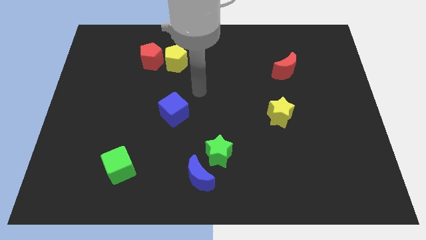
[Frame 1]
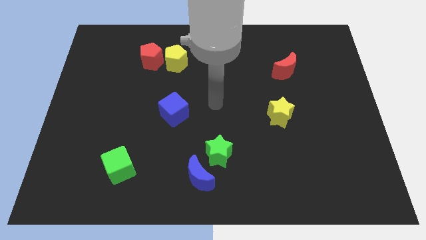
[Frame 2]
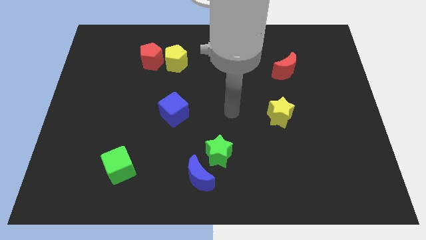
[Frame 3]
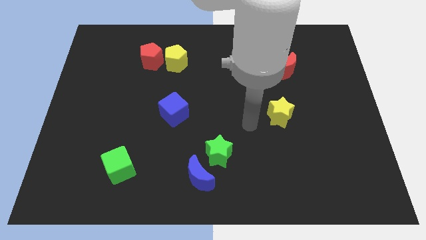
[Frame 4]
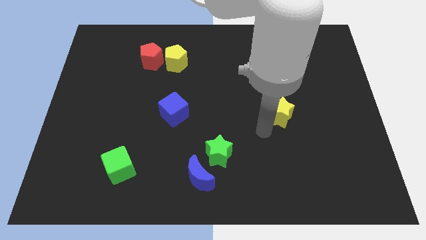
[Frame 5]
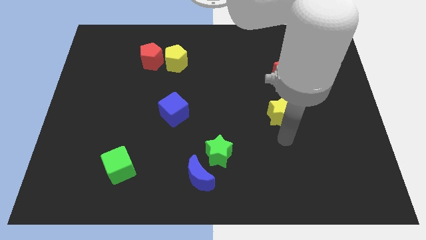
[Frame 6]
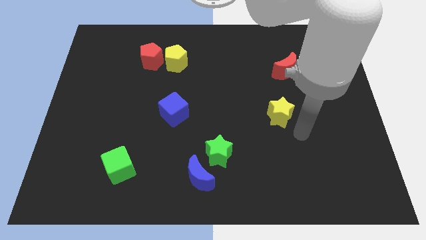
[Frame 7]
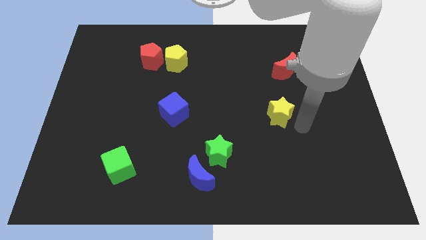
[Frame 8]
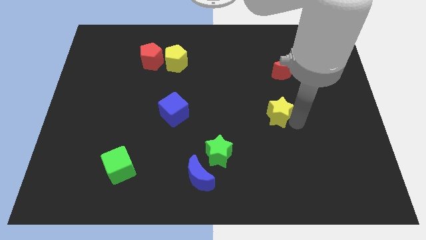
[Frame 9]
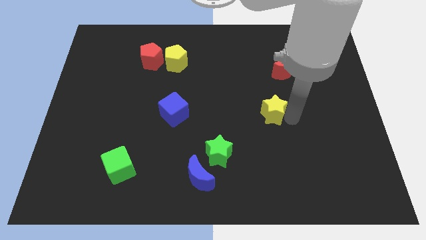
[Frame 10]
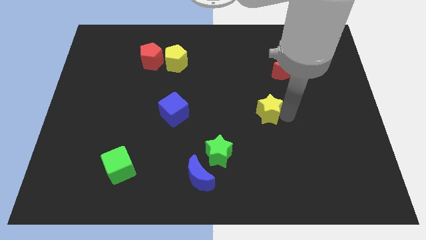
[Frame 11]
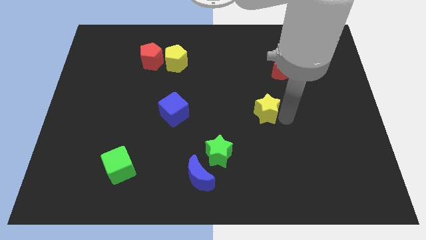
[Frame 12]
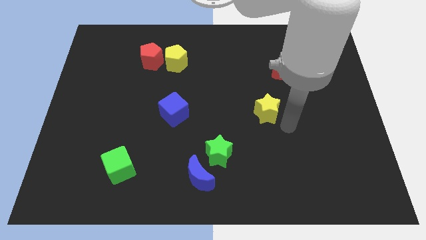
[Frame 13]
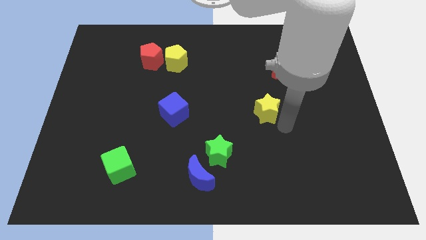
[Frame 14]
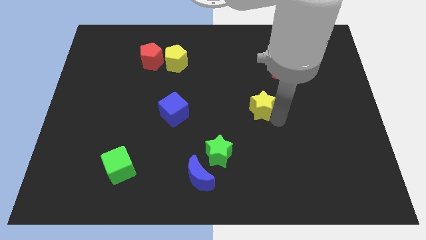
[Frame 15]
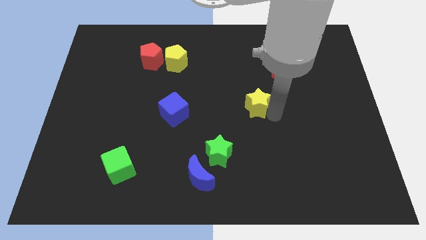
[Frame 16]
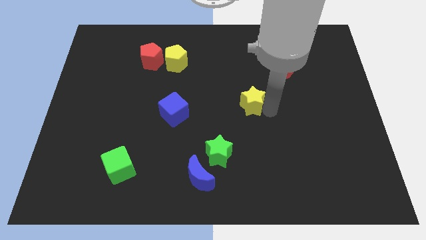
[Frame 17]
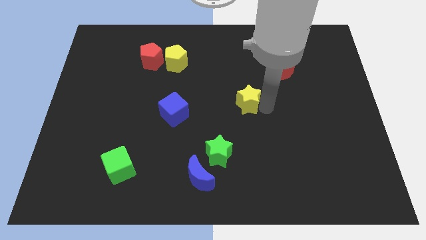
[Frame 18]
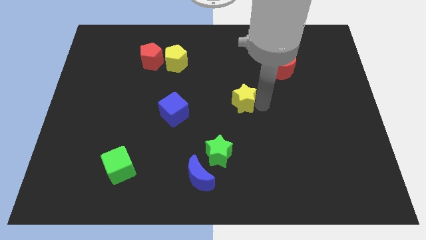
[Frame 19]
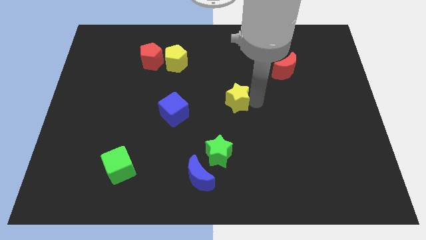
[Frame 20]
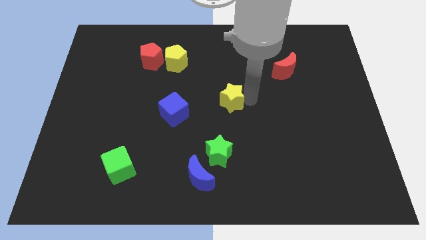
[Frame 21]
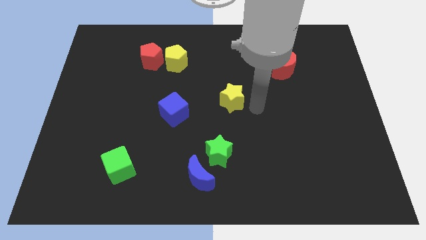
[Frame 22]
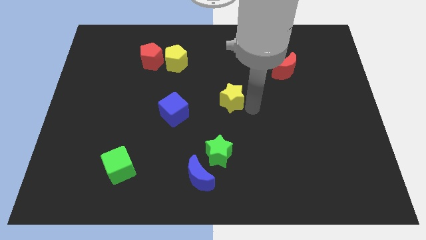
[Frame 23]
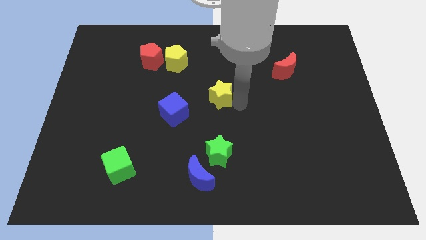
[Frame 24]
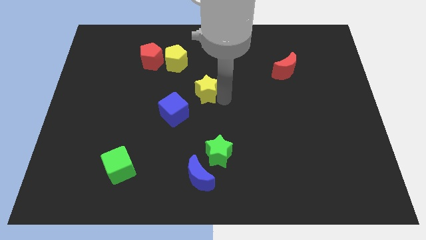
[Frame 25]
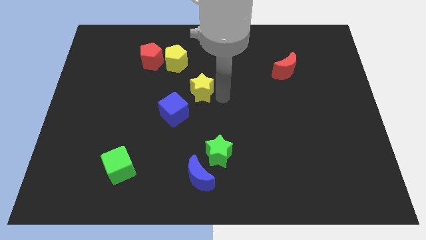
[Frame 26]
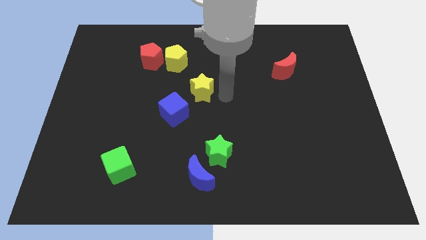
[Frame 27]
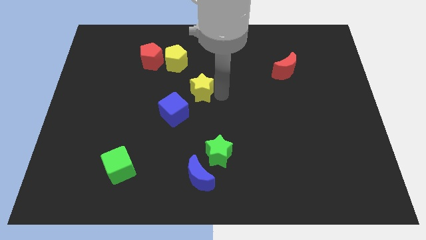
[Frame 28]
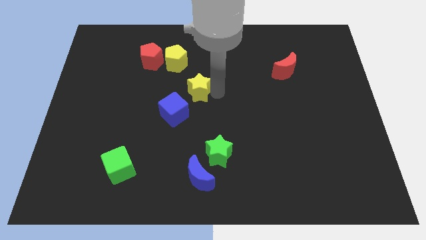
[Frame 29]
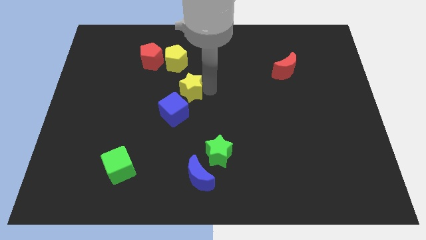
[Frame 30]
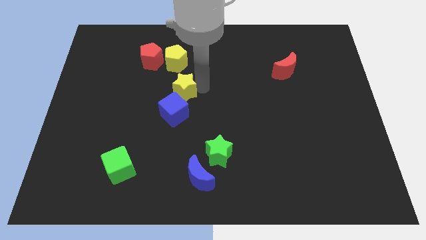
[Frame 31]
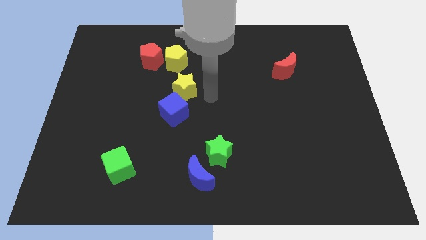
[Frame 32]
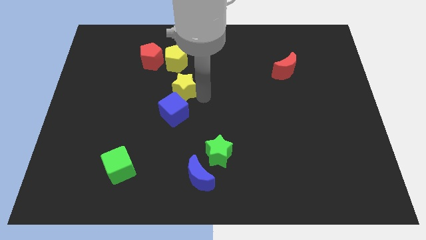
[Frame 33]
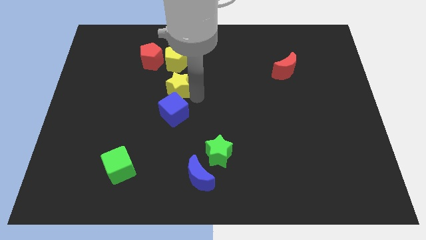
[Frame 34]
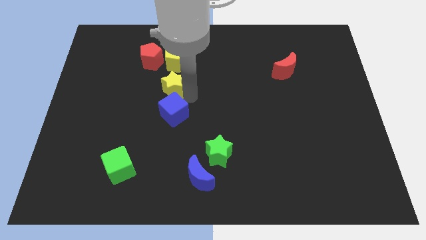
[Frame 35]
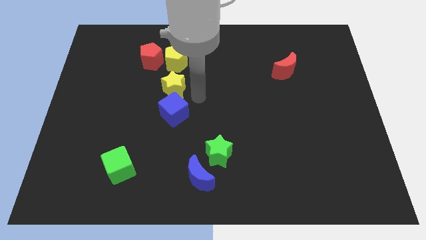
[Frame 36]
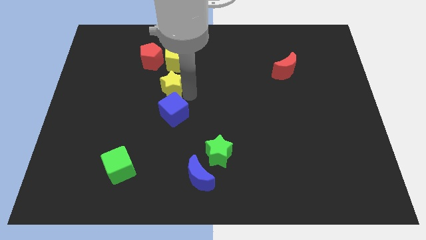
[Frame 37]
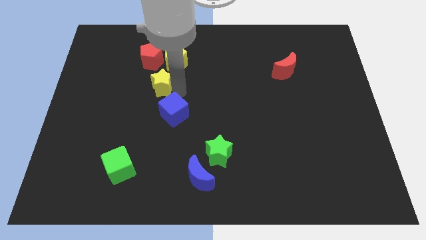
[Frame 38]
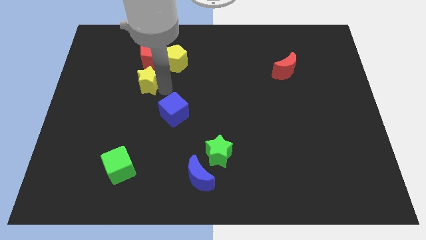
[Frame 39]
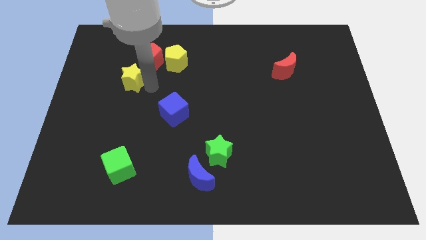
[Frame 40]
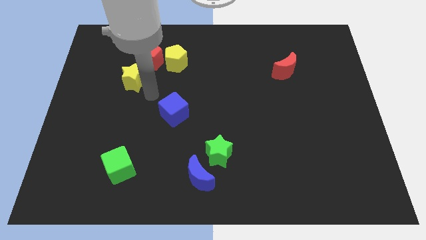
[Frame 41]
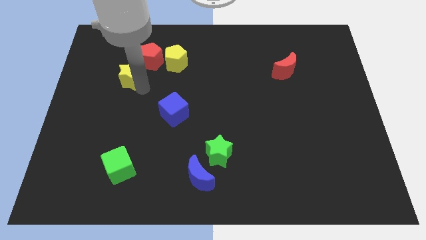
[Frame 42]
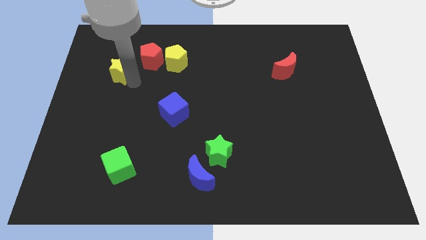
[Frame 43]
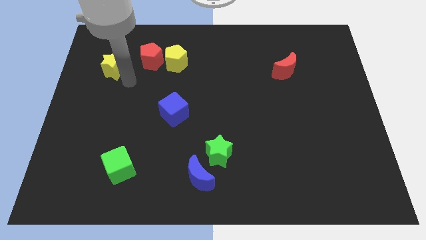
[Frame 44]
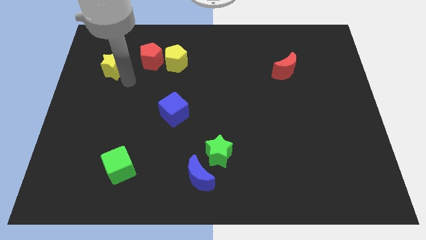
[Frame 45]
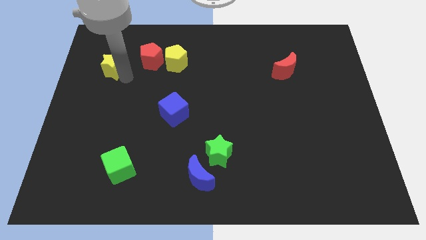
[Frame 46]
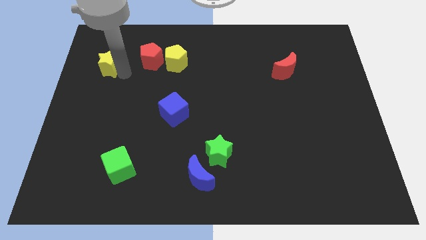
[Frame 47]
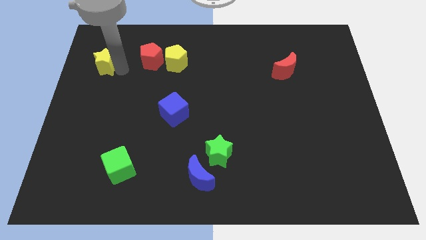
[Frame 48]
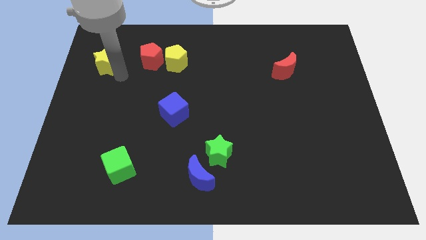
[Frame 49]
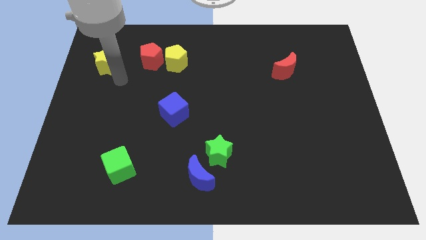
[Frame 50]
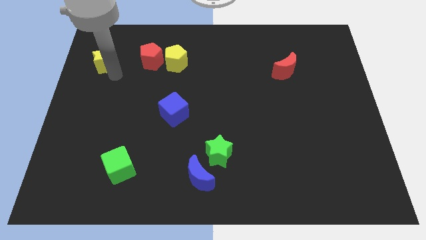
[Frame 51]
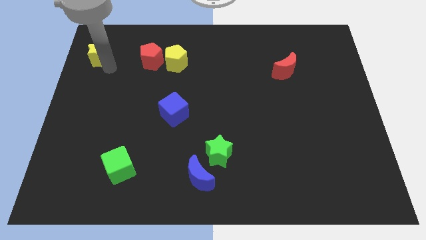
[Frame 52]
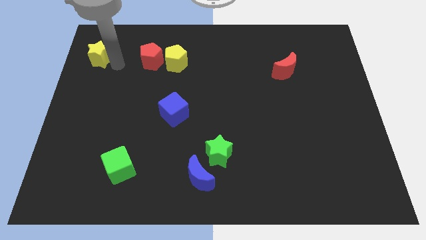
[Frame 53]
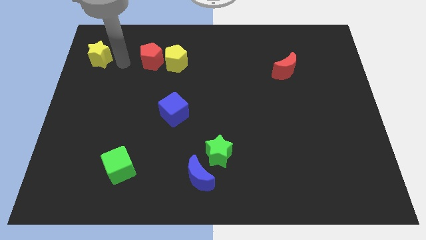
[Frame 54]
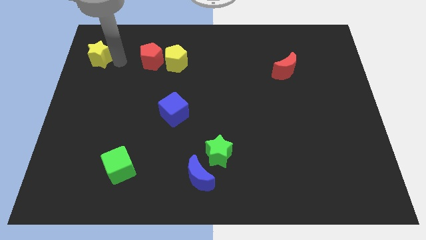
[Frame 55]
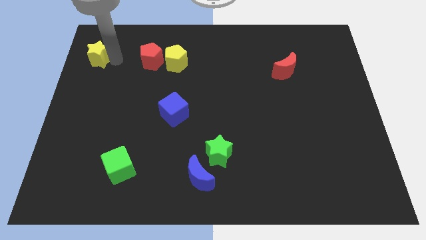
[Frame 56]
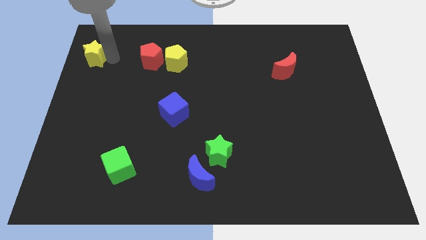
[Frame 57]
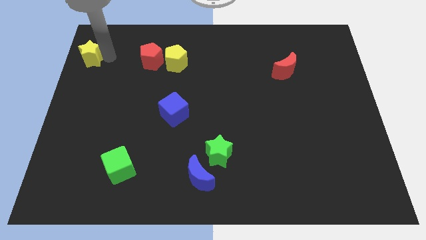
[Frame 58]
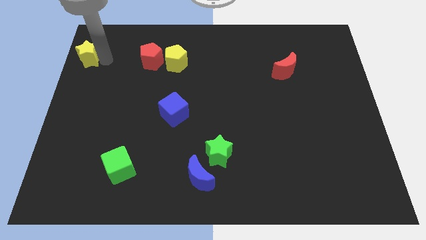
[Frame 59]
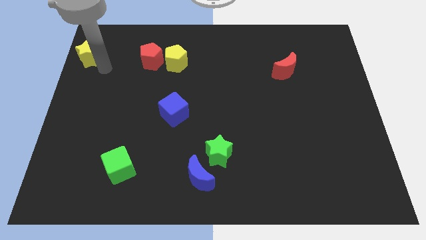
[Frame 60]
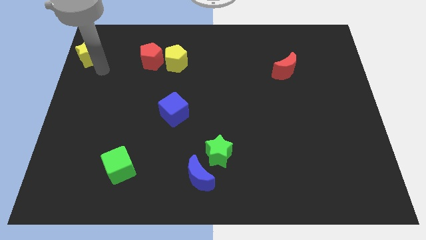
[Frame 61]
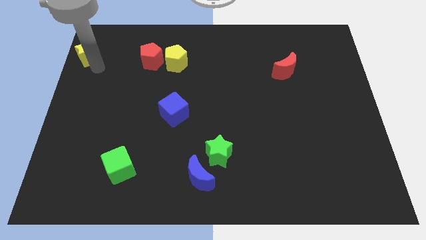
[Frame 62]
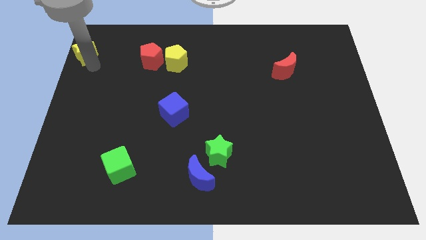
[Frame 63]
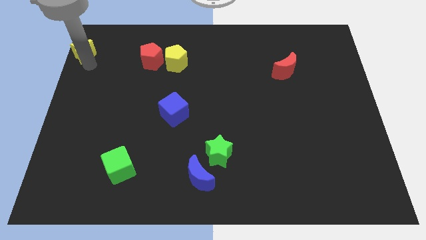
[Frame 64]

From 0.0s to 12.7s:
move the yellow star to the top left

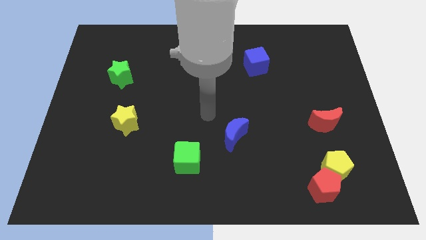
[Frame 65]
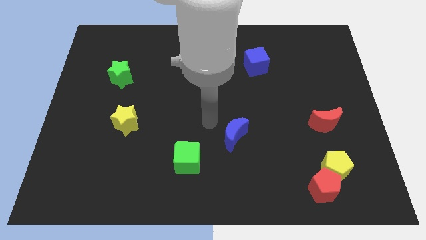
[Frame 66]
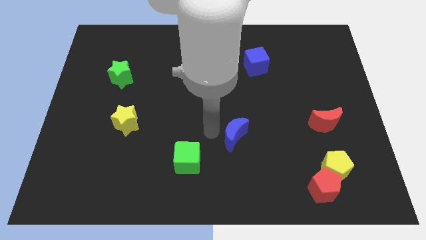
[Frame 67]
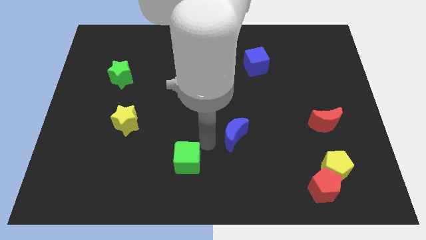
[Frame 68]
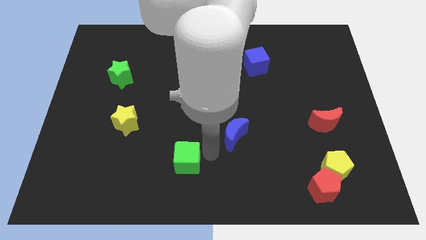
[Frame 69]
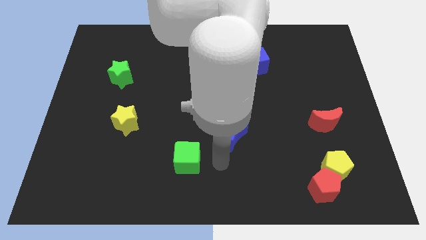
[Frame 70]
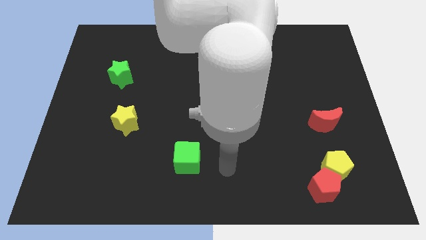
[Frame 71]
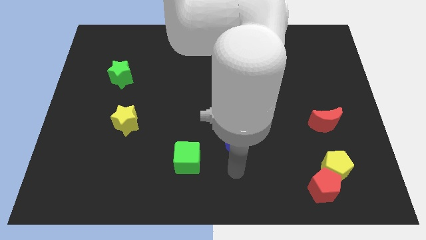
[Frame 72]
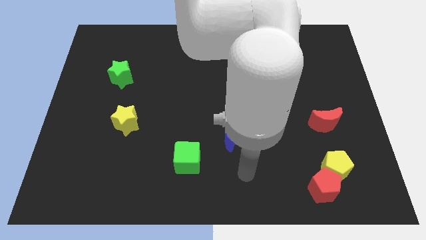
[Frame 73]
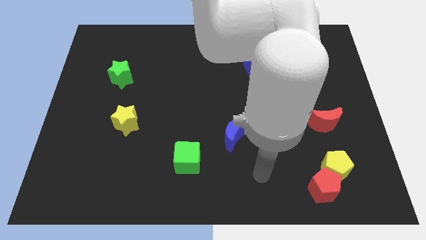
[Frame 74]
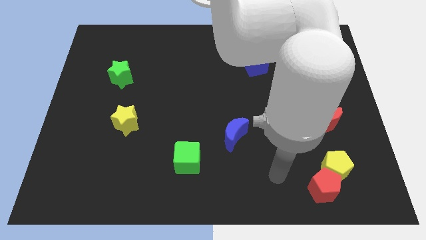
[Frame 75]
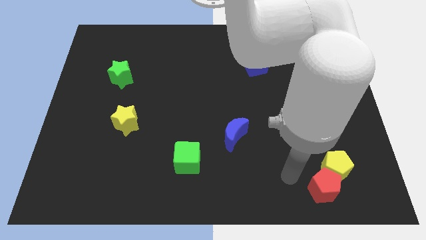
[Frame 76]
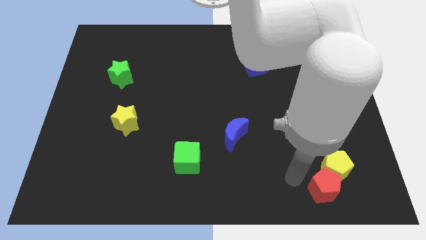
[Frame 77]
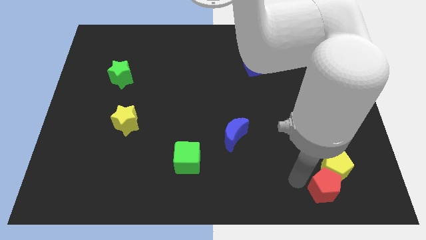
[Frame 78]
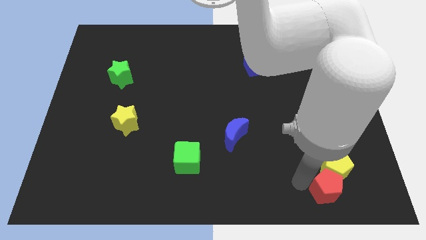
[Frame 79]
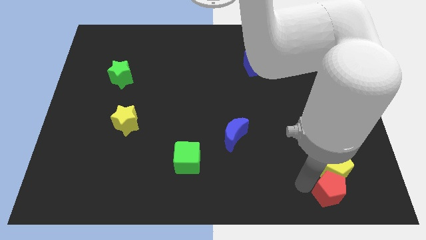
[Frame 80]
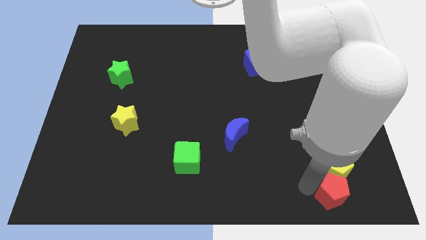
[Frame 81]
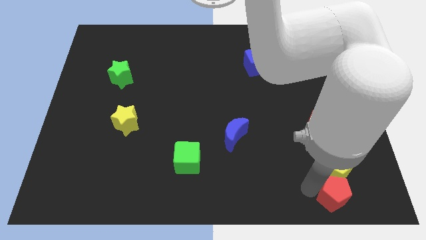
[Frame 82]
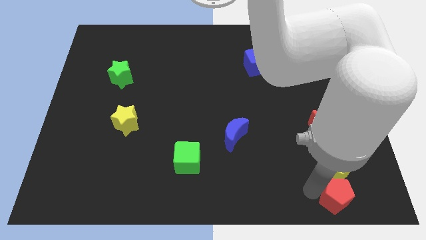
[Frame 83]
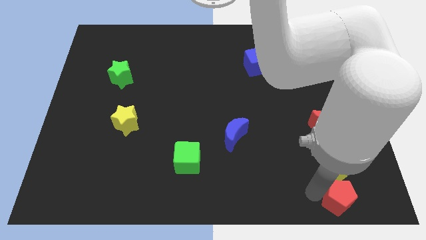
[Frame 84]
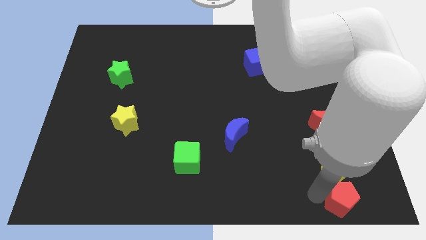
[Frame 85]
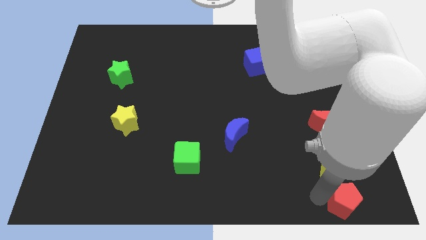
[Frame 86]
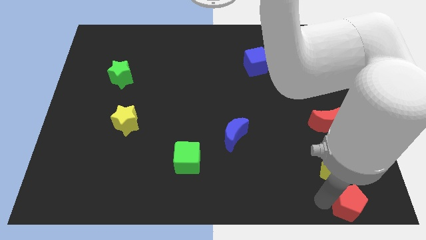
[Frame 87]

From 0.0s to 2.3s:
push the red pentagon to the bottom right
